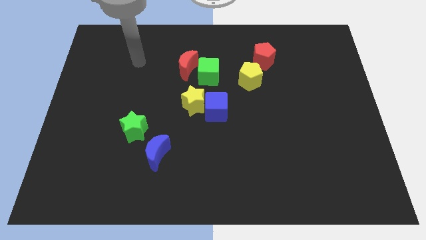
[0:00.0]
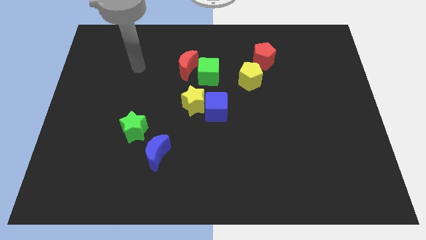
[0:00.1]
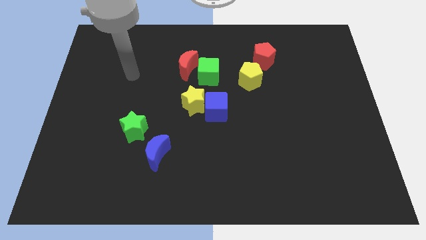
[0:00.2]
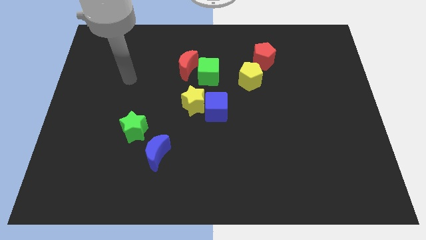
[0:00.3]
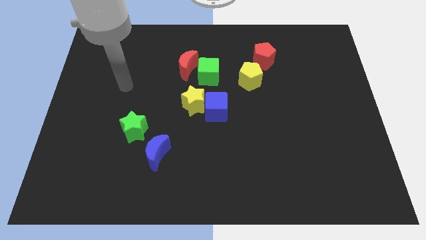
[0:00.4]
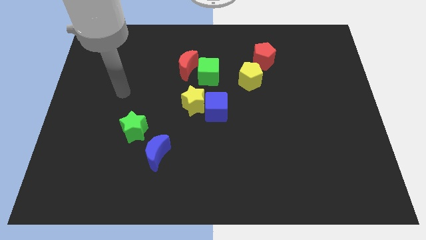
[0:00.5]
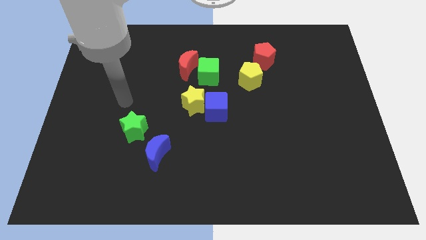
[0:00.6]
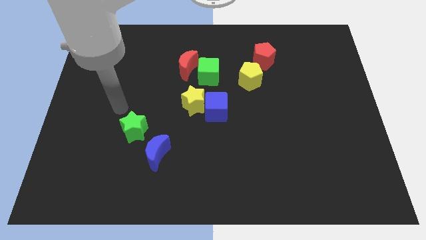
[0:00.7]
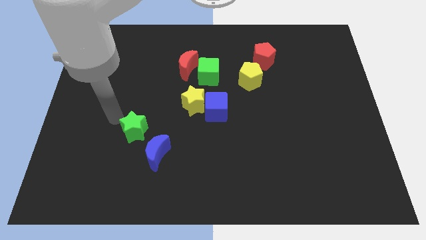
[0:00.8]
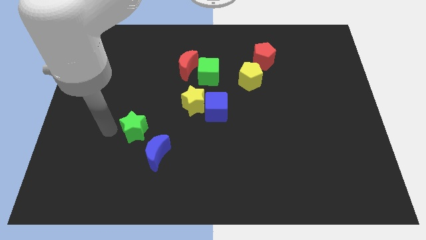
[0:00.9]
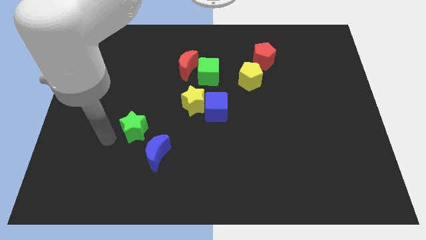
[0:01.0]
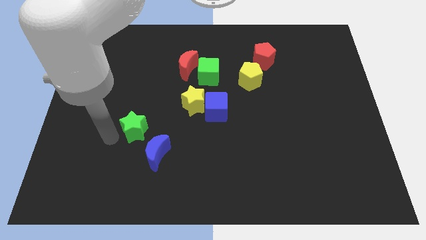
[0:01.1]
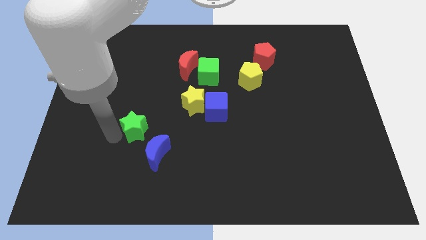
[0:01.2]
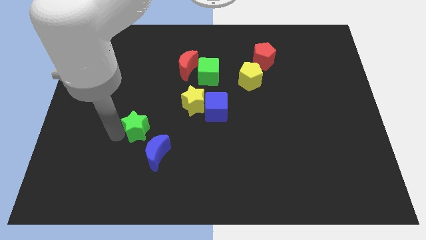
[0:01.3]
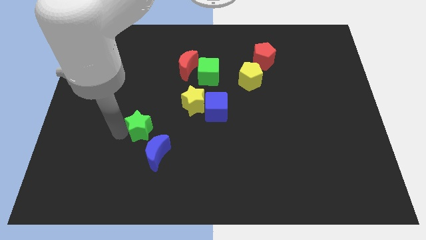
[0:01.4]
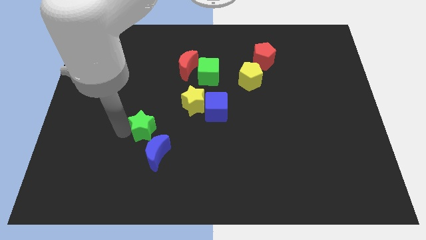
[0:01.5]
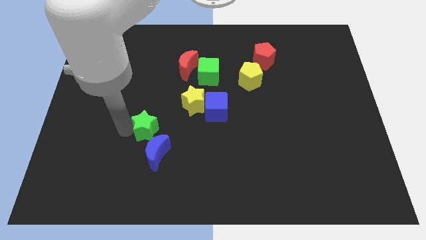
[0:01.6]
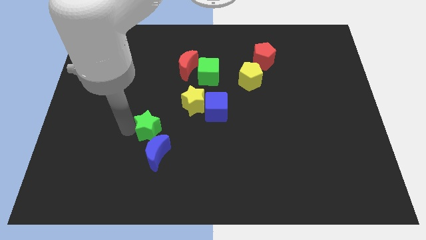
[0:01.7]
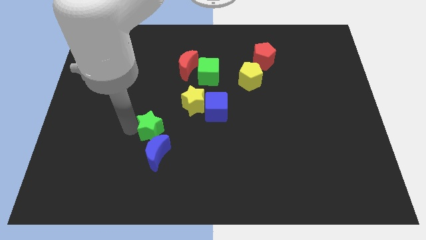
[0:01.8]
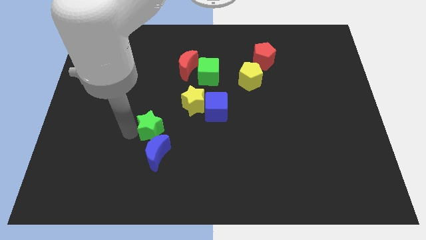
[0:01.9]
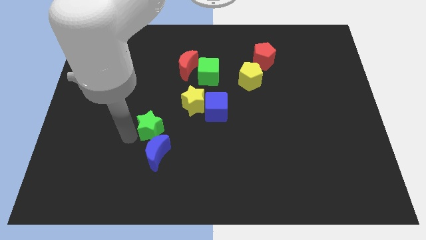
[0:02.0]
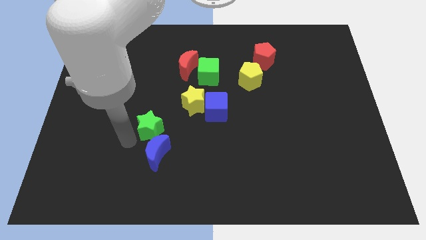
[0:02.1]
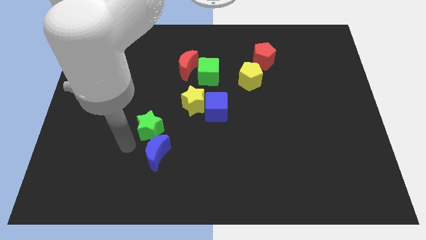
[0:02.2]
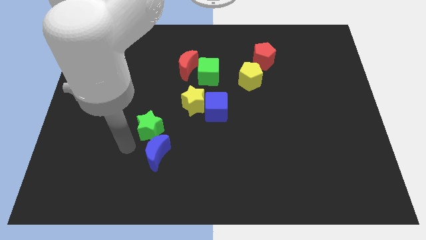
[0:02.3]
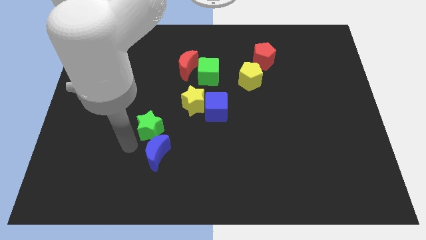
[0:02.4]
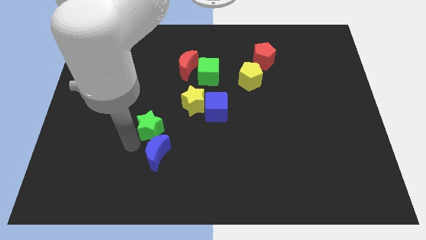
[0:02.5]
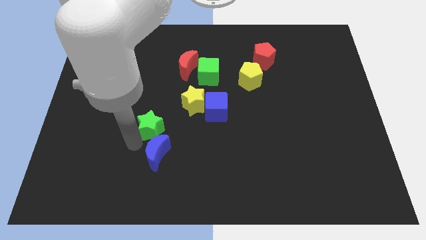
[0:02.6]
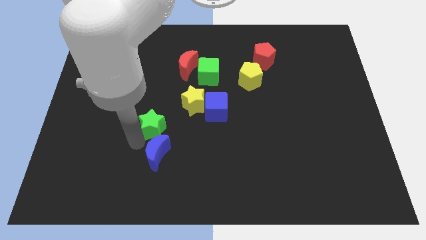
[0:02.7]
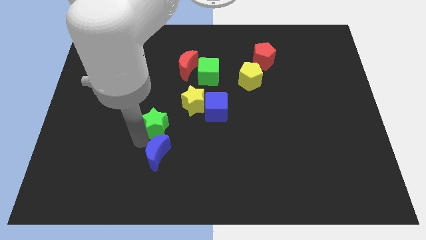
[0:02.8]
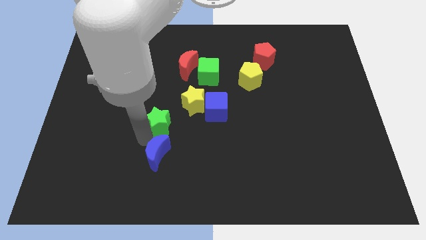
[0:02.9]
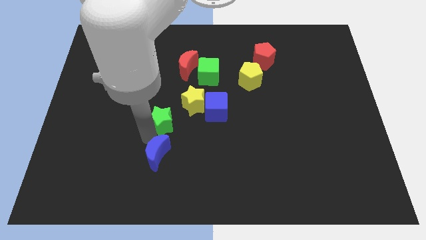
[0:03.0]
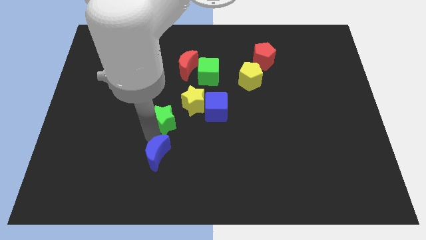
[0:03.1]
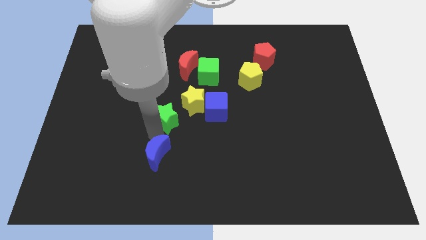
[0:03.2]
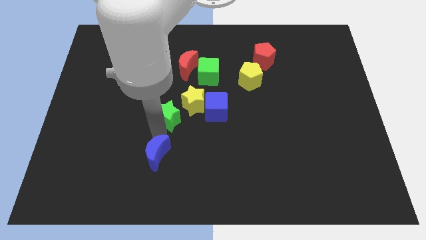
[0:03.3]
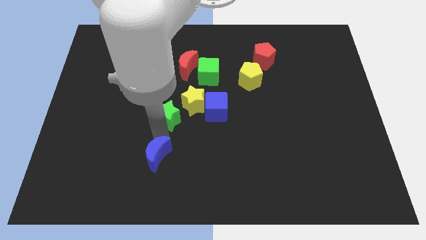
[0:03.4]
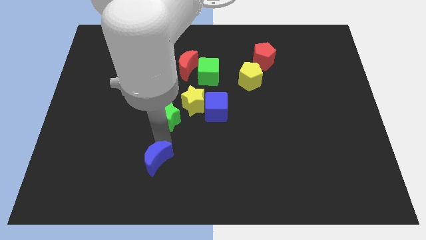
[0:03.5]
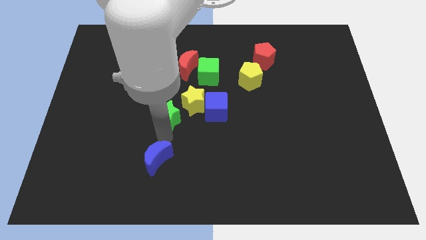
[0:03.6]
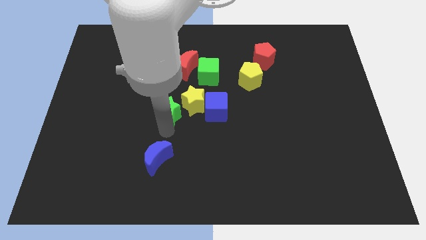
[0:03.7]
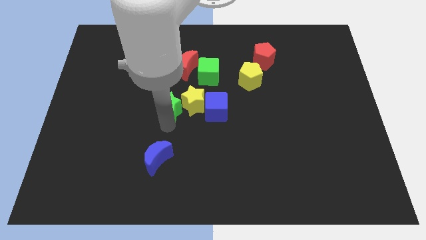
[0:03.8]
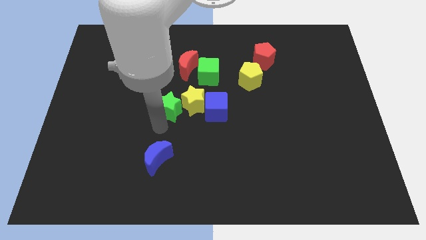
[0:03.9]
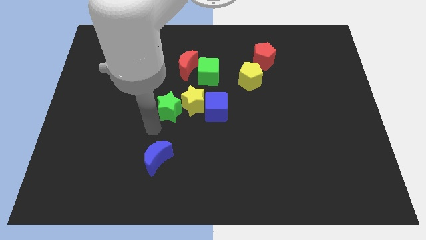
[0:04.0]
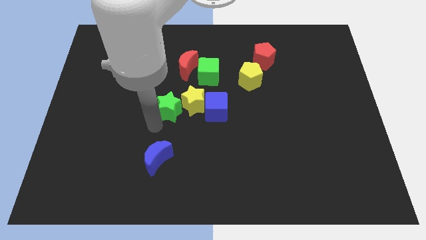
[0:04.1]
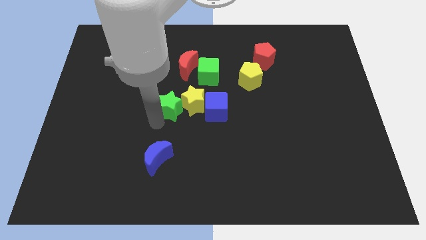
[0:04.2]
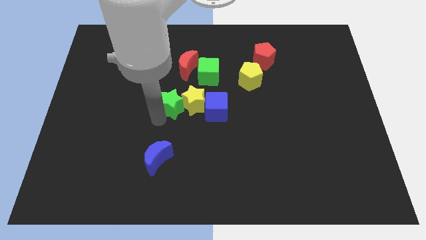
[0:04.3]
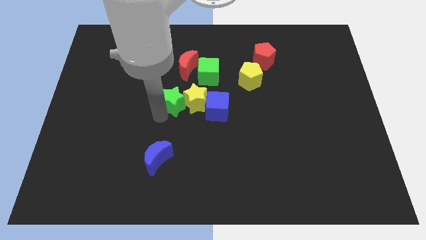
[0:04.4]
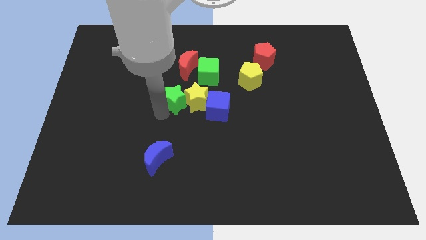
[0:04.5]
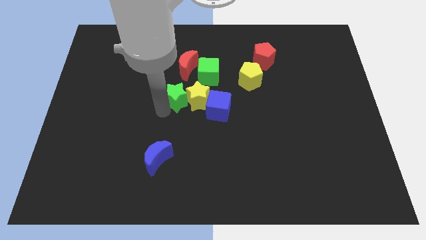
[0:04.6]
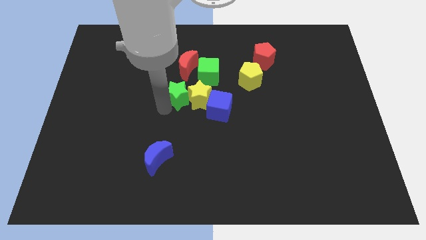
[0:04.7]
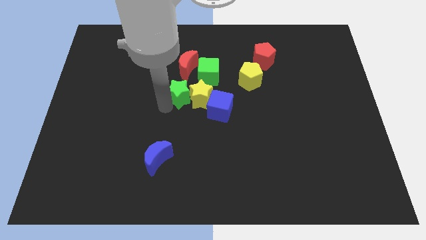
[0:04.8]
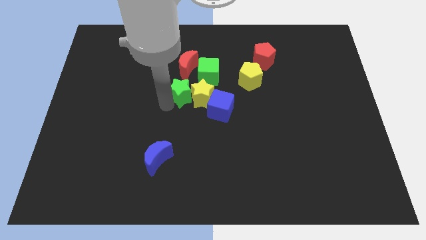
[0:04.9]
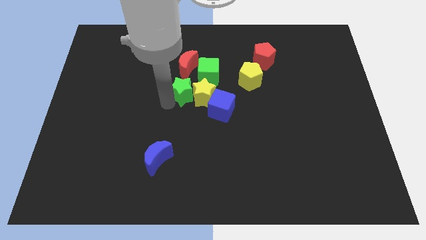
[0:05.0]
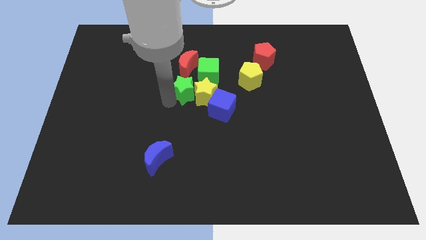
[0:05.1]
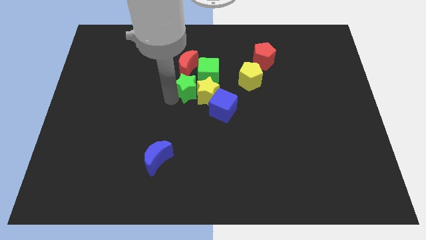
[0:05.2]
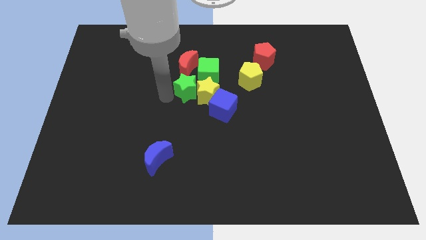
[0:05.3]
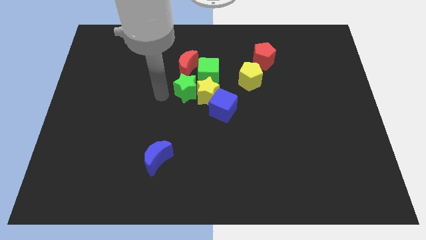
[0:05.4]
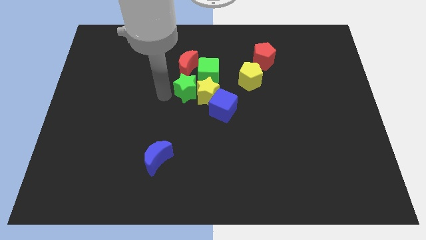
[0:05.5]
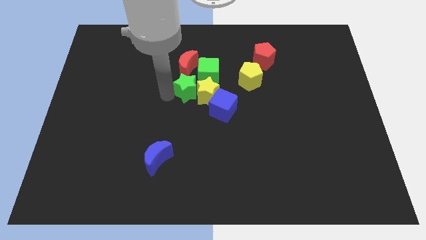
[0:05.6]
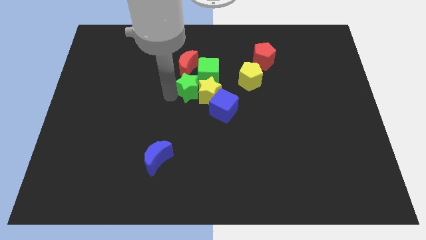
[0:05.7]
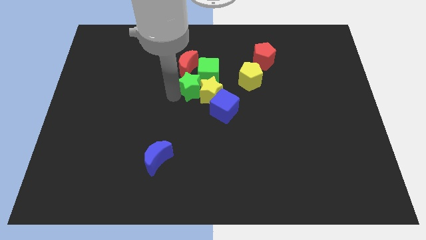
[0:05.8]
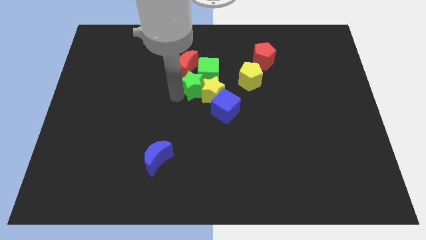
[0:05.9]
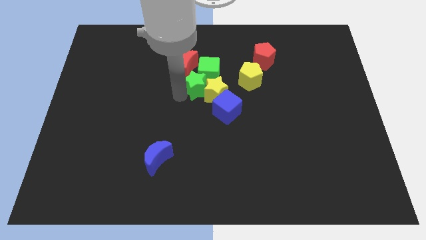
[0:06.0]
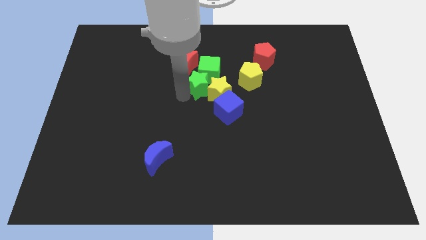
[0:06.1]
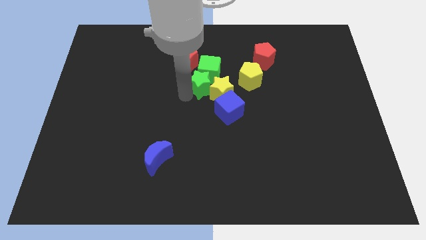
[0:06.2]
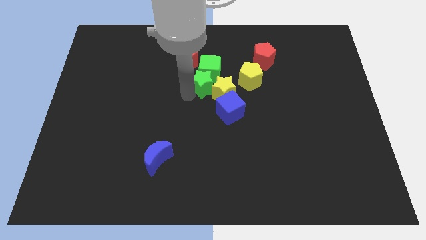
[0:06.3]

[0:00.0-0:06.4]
slide the green star upwards and to the right diagonally

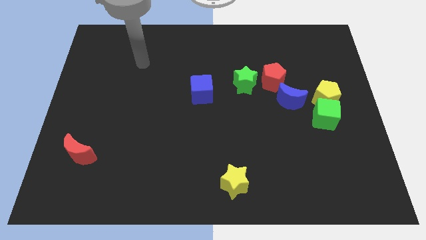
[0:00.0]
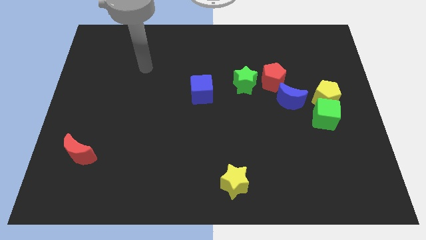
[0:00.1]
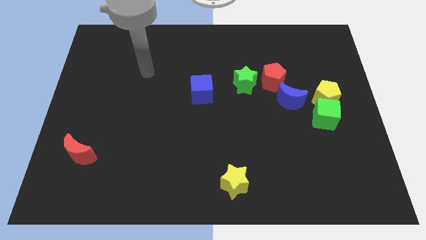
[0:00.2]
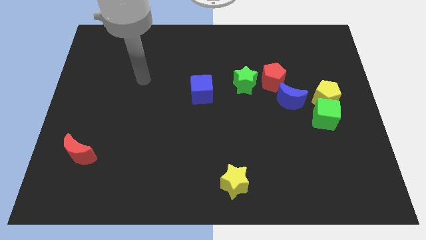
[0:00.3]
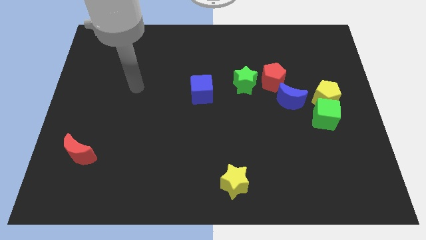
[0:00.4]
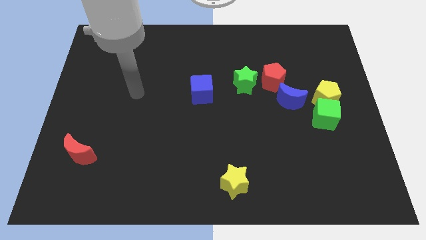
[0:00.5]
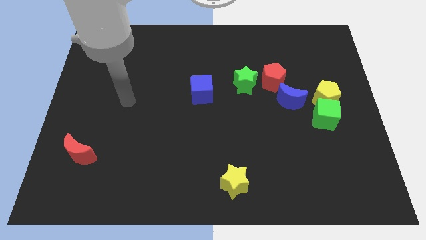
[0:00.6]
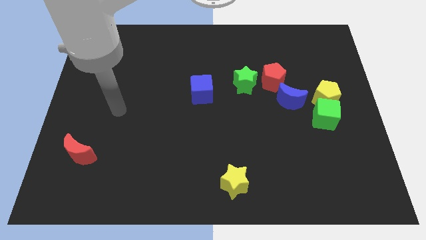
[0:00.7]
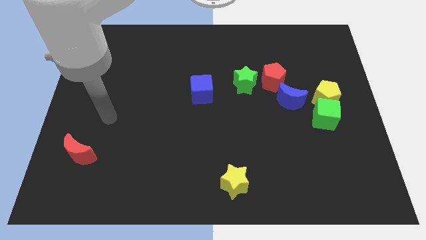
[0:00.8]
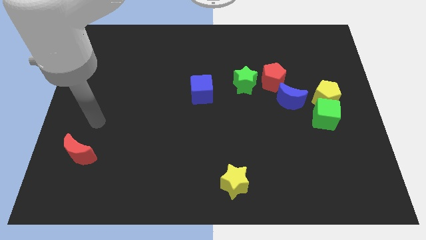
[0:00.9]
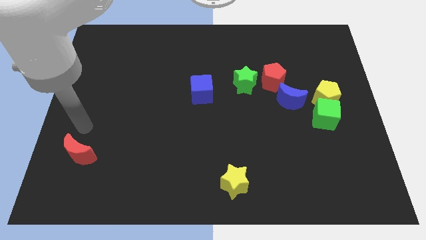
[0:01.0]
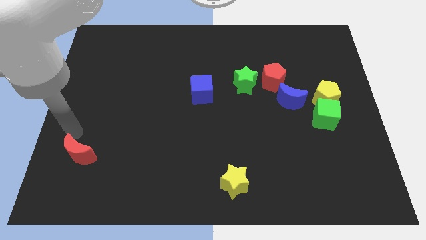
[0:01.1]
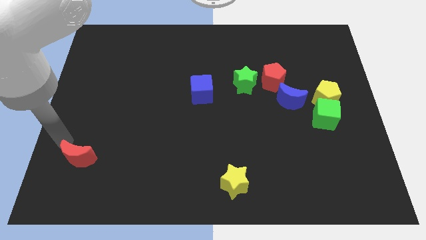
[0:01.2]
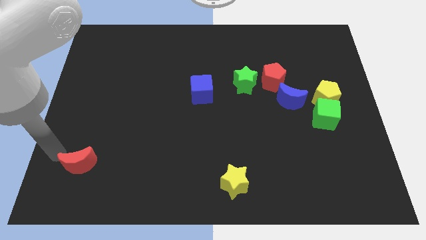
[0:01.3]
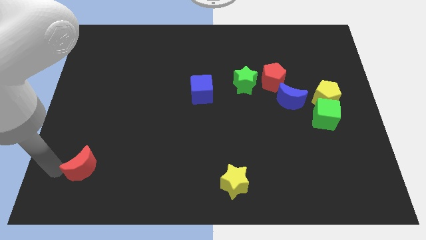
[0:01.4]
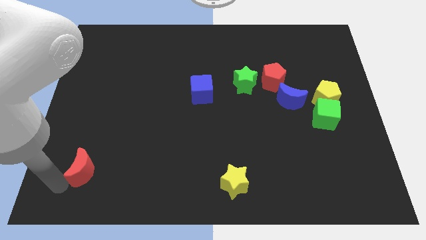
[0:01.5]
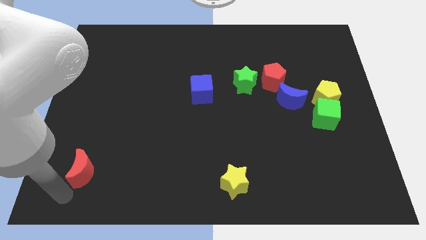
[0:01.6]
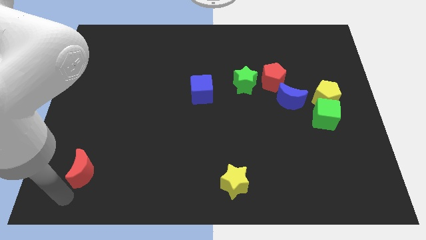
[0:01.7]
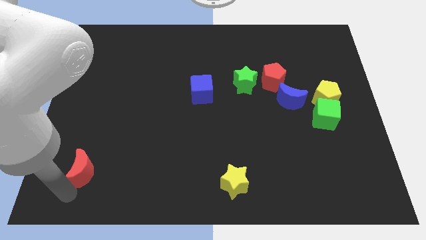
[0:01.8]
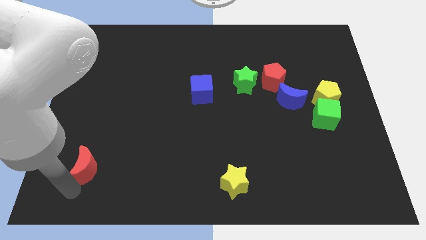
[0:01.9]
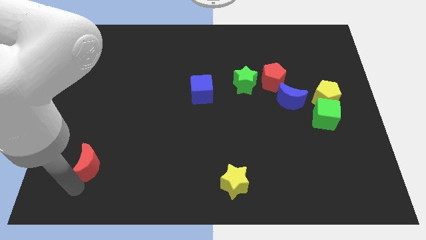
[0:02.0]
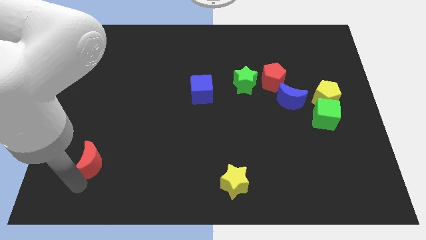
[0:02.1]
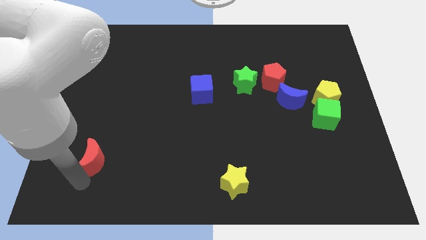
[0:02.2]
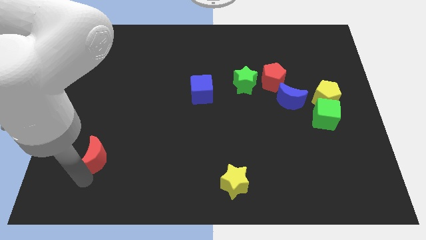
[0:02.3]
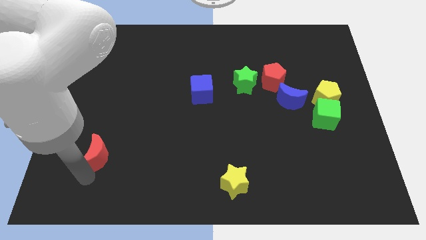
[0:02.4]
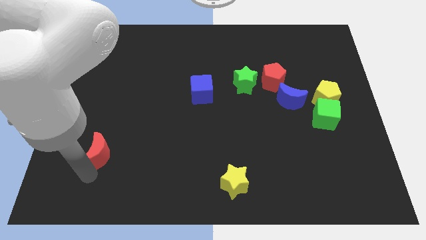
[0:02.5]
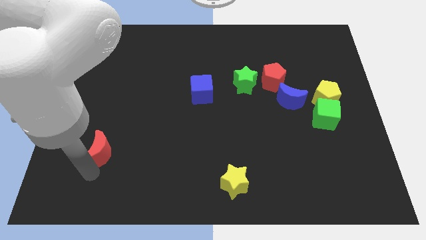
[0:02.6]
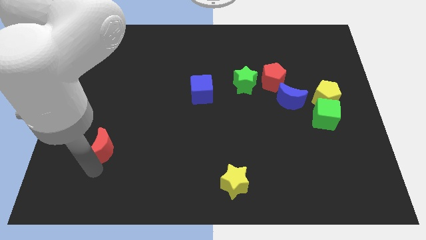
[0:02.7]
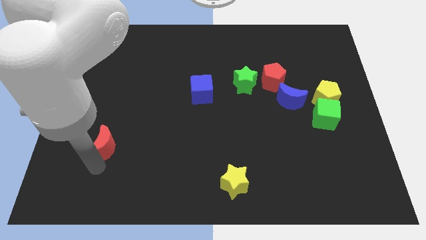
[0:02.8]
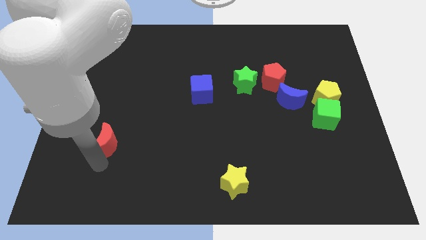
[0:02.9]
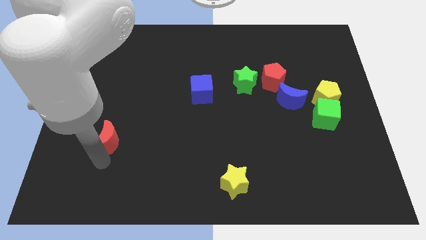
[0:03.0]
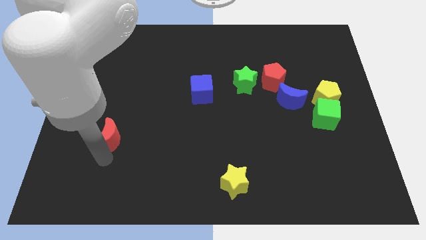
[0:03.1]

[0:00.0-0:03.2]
slide the red moon a little bit diagonally up and right
